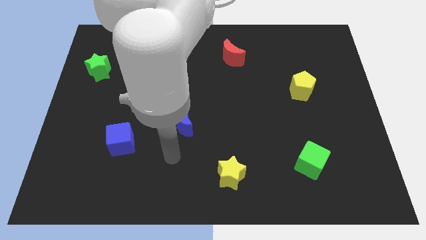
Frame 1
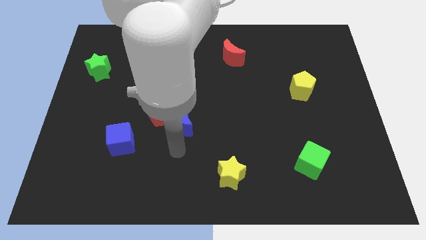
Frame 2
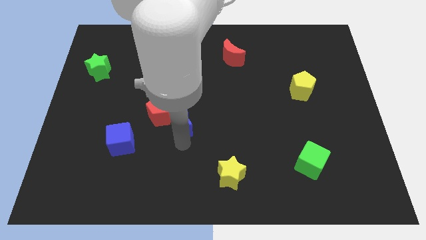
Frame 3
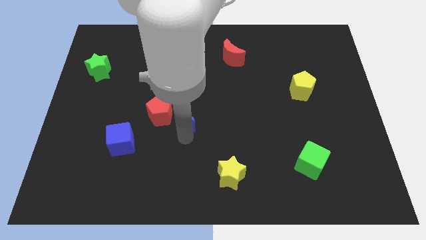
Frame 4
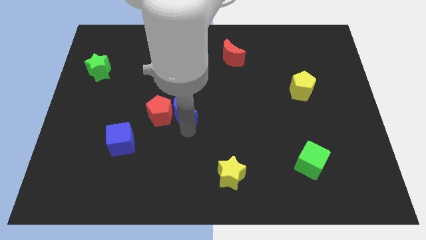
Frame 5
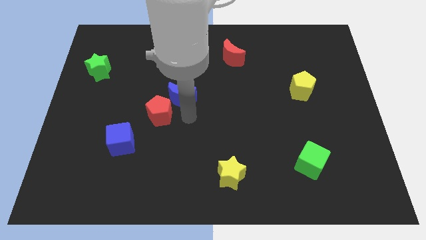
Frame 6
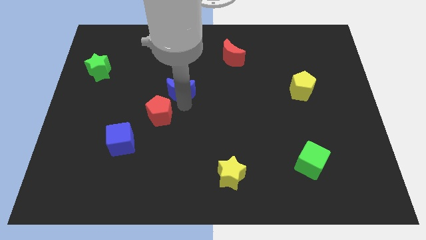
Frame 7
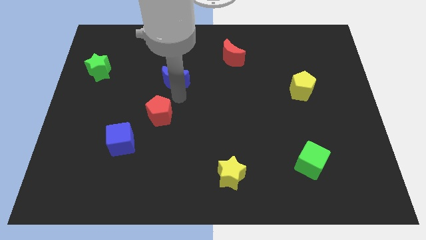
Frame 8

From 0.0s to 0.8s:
pull the red pentagon apart from the blue moon

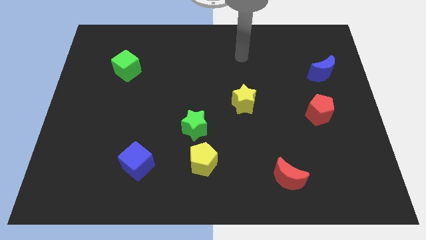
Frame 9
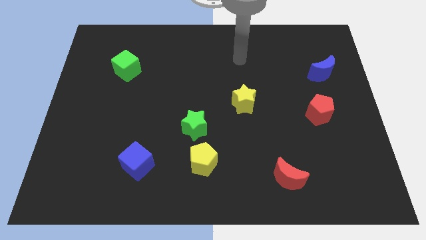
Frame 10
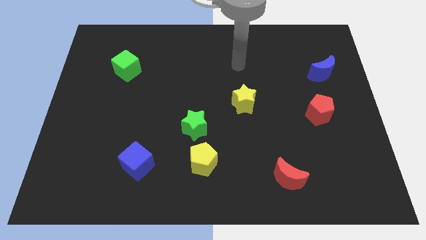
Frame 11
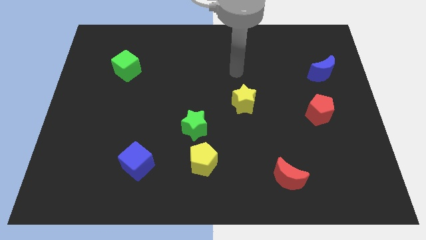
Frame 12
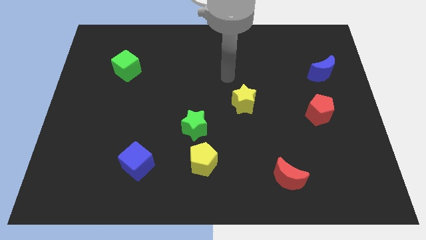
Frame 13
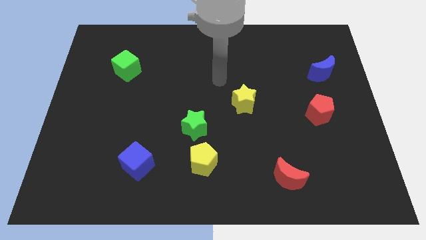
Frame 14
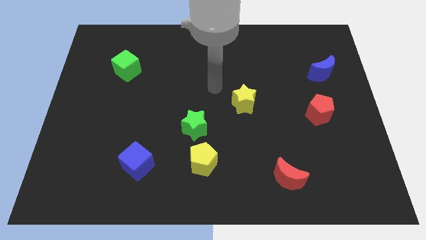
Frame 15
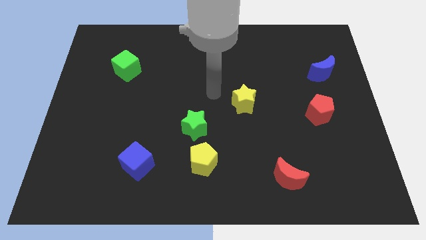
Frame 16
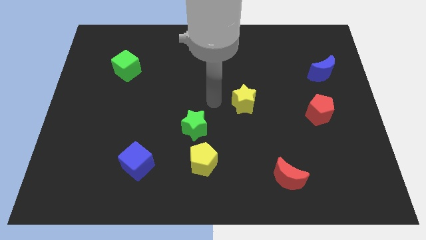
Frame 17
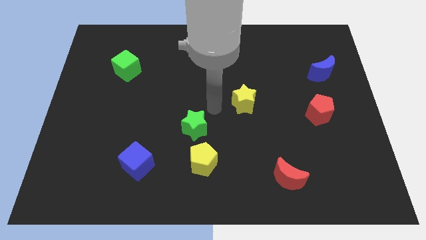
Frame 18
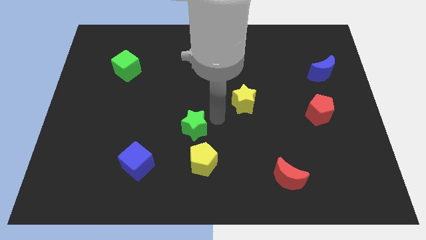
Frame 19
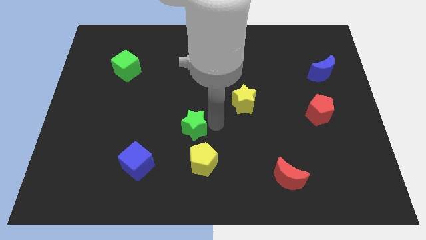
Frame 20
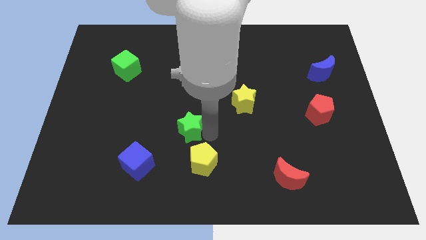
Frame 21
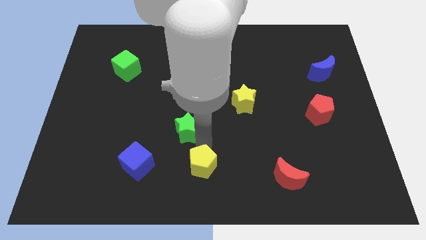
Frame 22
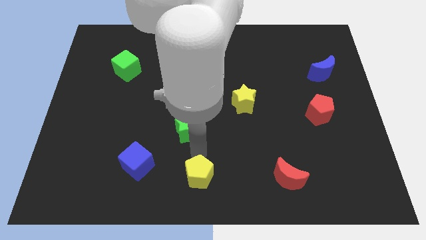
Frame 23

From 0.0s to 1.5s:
separate the green star from the yellow pentagon

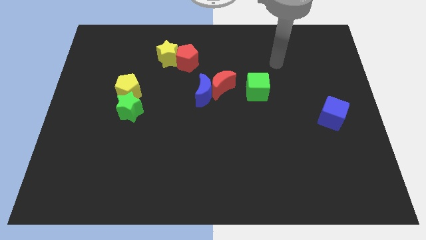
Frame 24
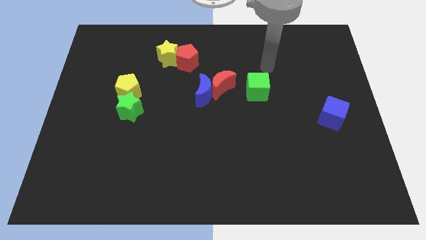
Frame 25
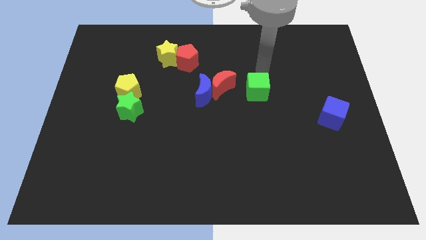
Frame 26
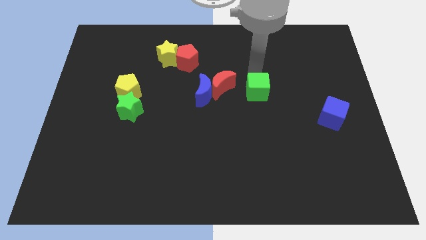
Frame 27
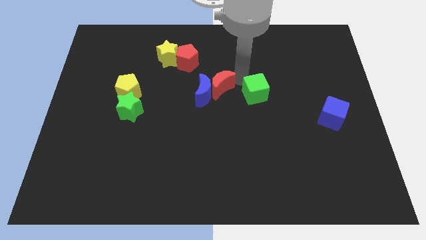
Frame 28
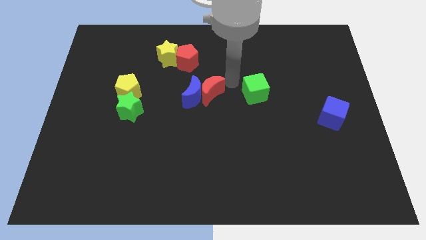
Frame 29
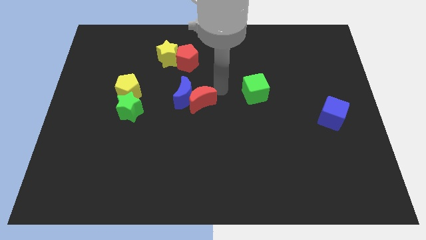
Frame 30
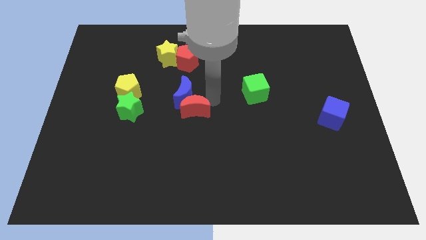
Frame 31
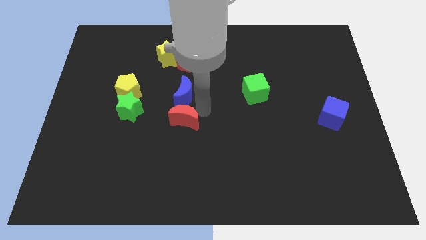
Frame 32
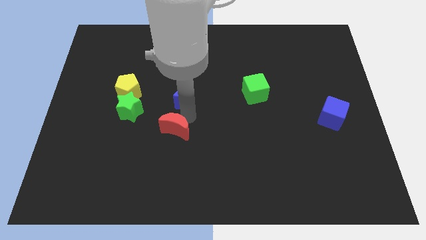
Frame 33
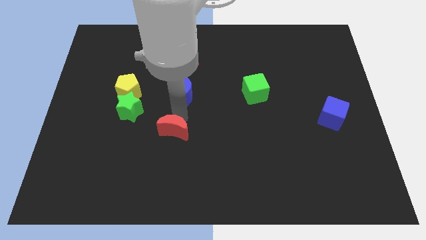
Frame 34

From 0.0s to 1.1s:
pull the blue moon apart from the red moon

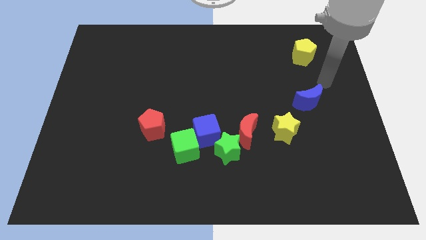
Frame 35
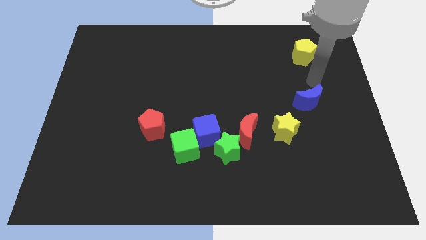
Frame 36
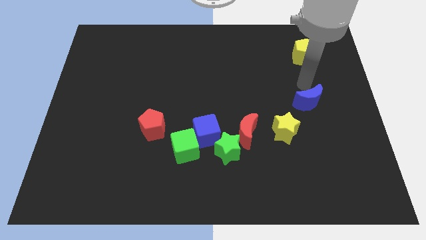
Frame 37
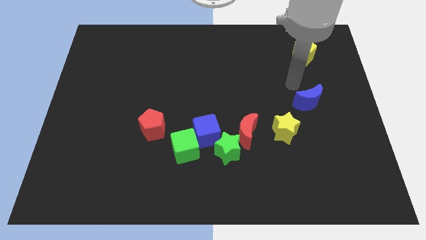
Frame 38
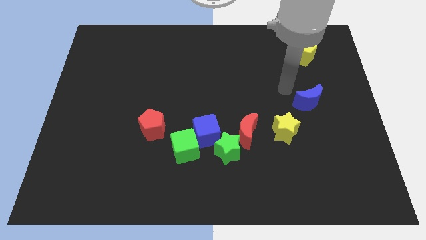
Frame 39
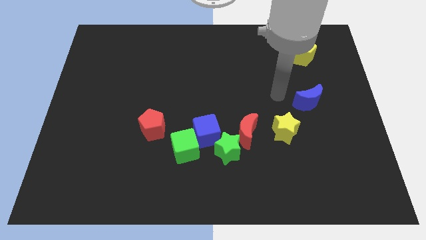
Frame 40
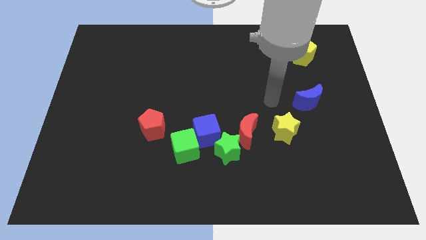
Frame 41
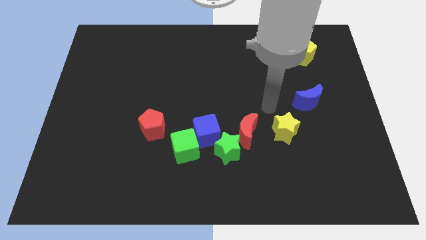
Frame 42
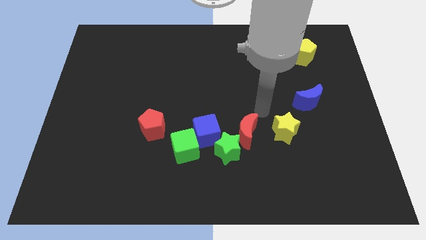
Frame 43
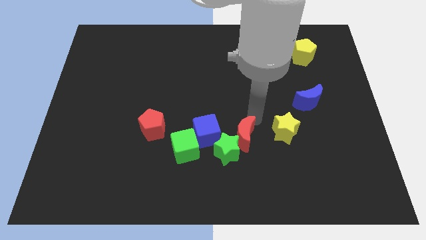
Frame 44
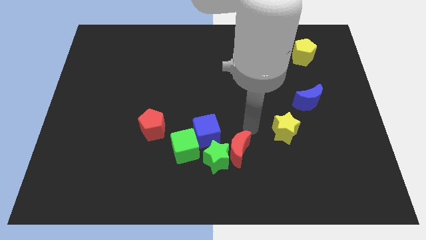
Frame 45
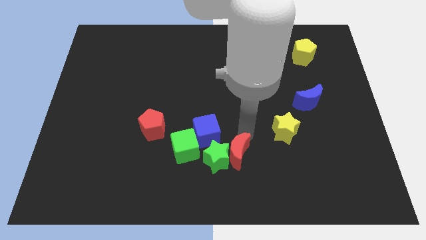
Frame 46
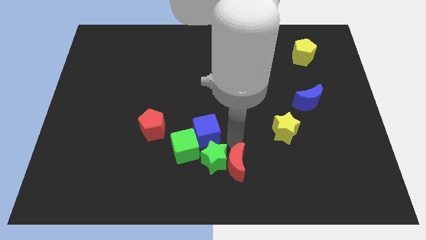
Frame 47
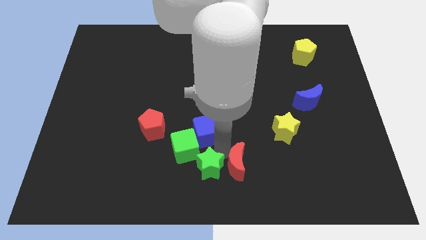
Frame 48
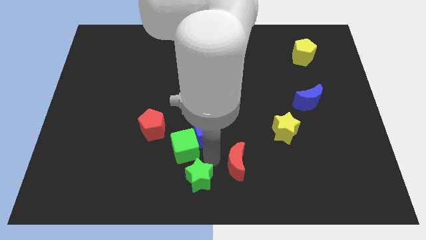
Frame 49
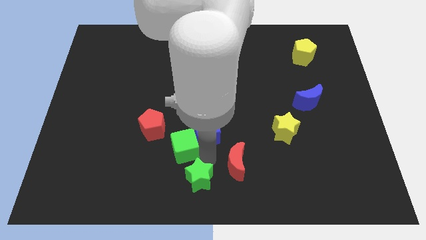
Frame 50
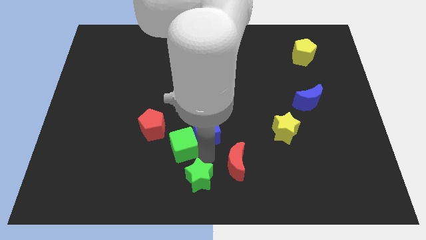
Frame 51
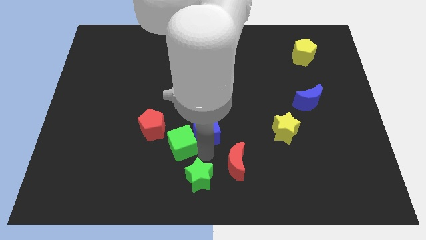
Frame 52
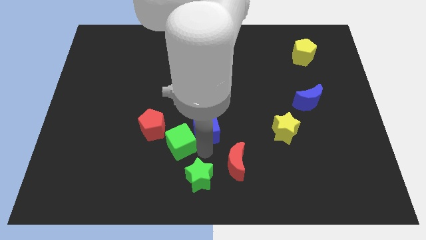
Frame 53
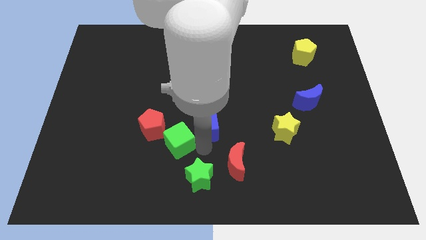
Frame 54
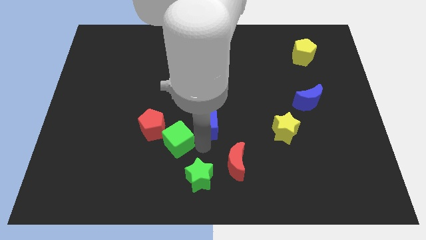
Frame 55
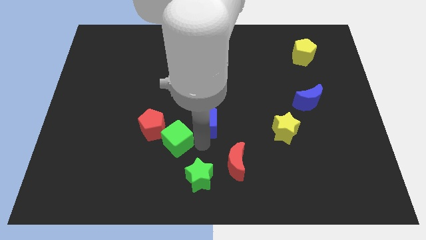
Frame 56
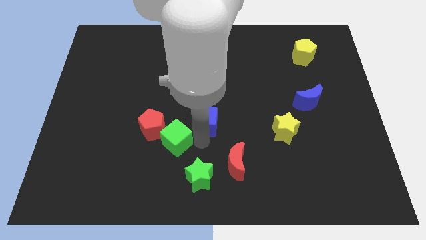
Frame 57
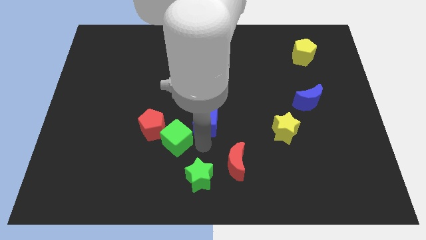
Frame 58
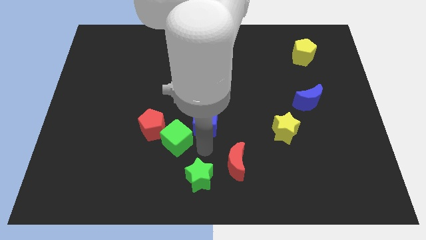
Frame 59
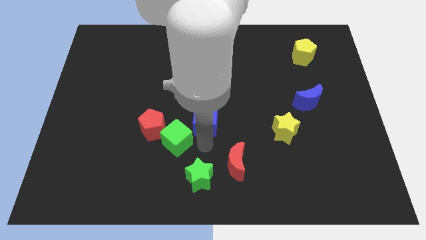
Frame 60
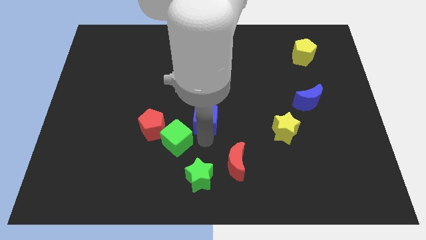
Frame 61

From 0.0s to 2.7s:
move the blue cube away from the green cube, green star, and red moon

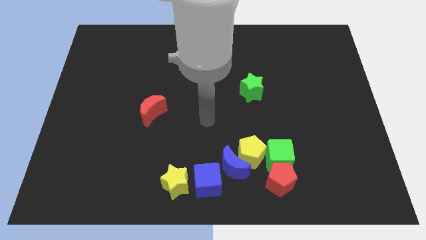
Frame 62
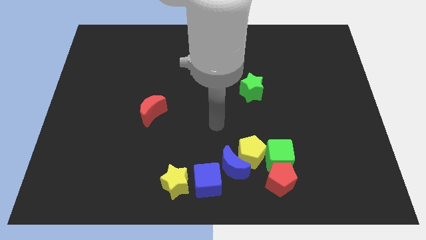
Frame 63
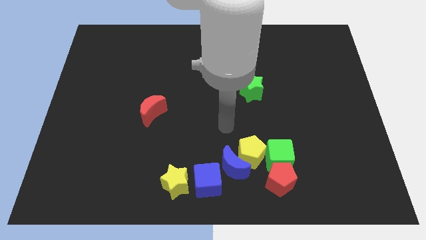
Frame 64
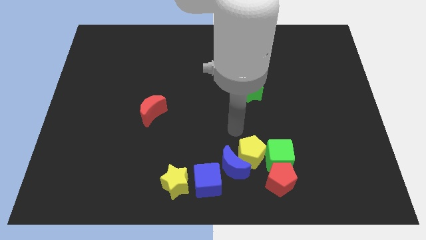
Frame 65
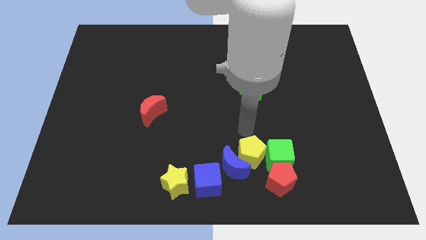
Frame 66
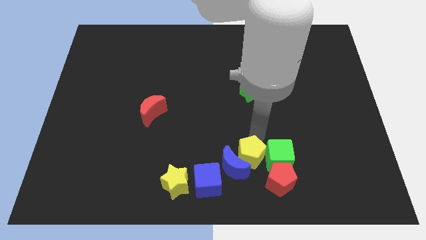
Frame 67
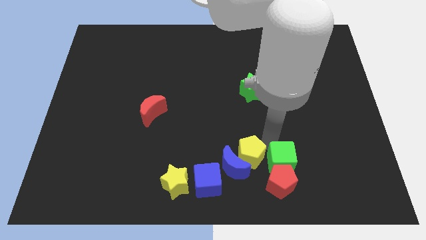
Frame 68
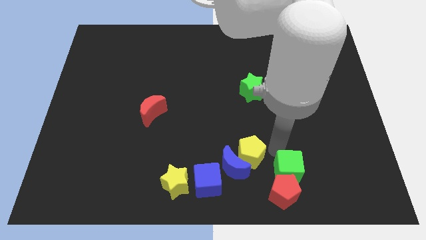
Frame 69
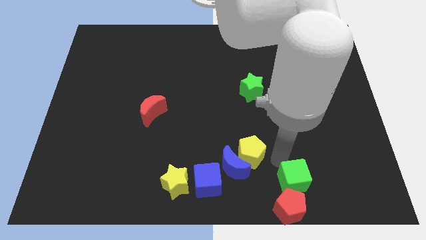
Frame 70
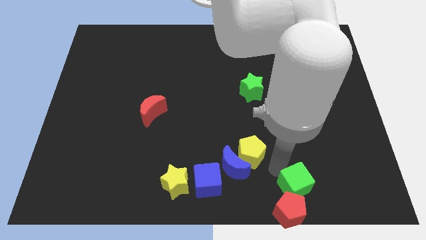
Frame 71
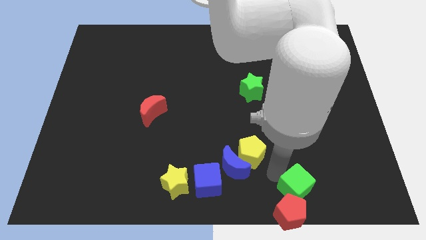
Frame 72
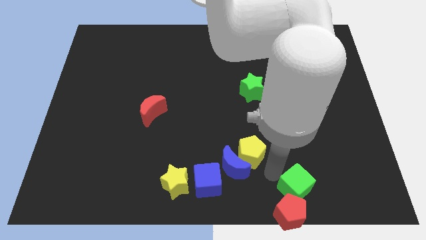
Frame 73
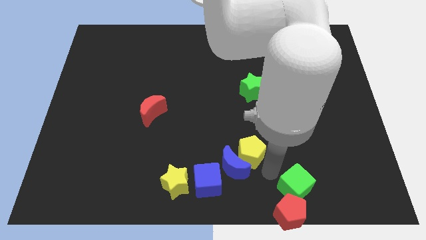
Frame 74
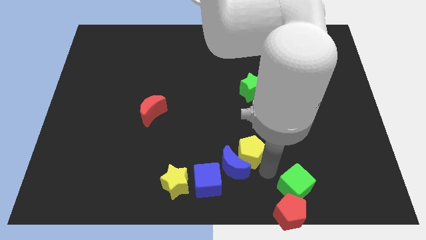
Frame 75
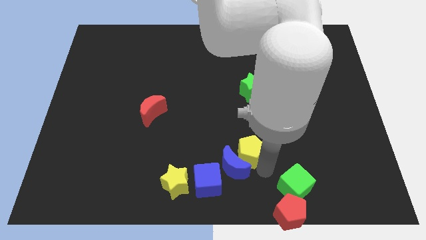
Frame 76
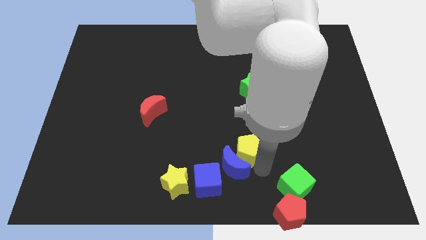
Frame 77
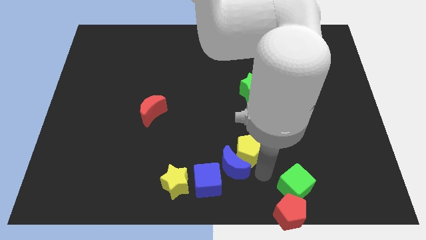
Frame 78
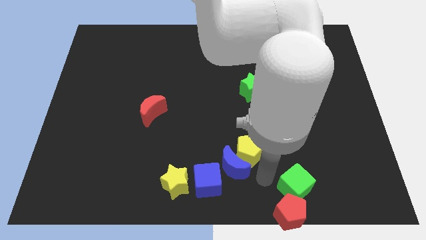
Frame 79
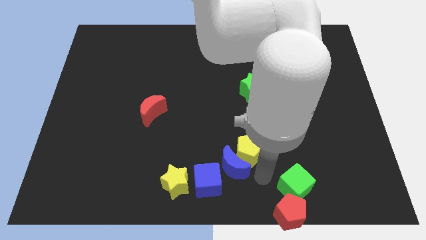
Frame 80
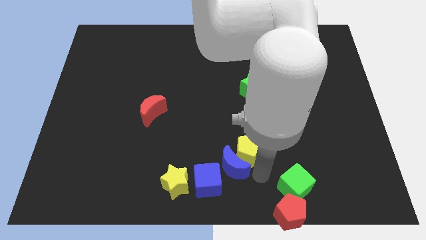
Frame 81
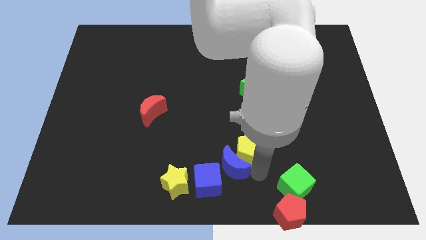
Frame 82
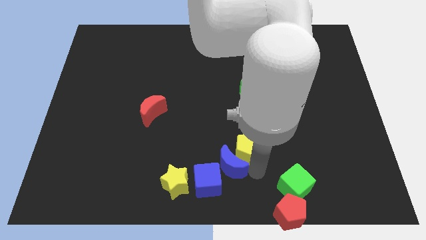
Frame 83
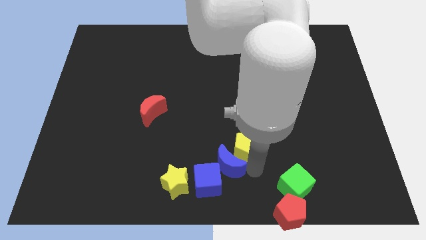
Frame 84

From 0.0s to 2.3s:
pull the yellow pentagon apart from the blue moon, green cube, and red pentagon

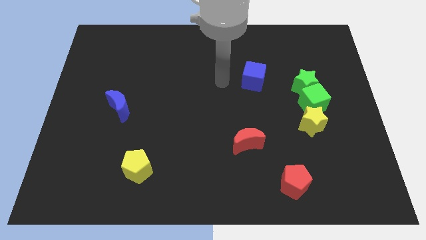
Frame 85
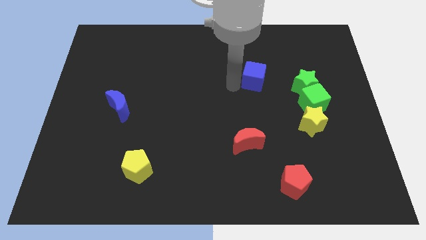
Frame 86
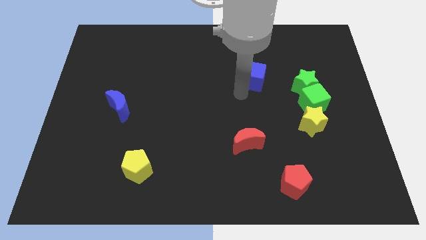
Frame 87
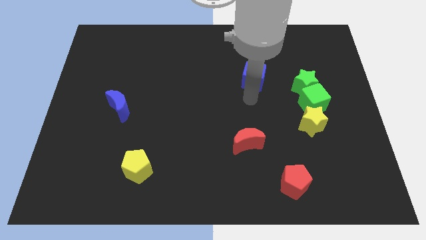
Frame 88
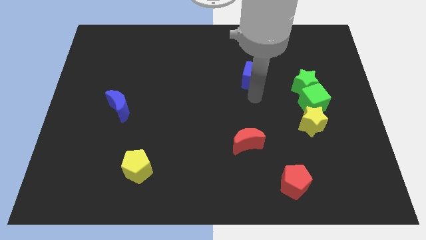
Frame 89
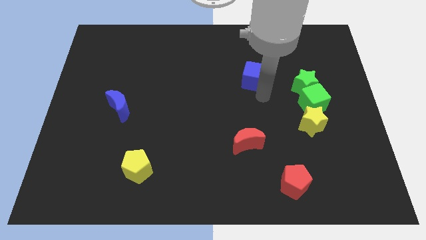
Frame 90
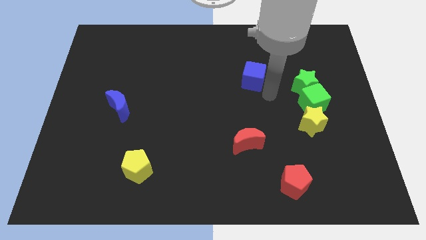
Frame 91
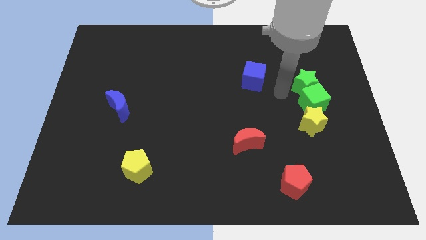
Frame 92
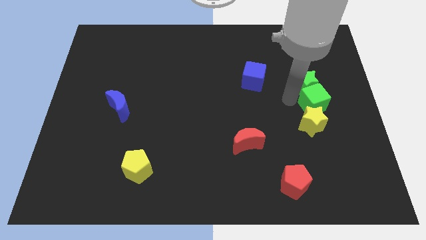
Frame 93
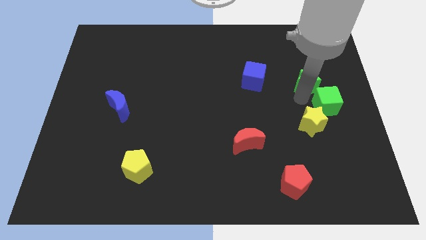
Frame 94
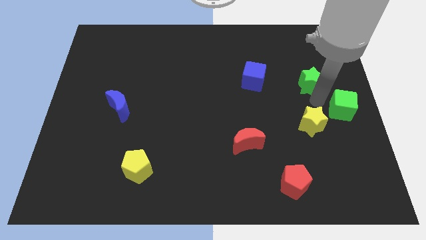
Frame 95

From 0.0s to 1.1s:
pull the green star apart from the green cube
